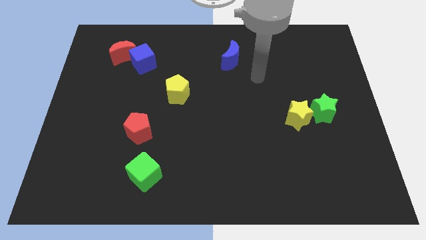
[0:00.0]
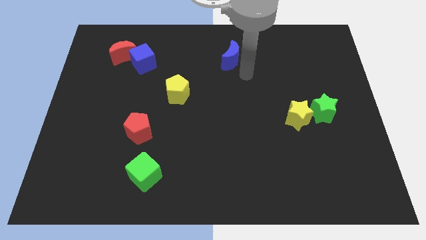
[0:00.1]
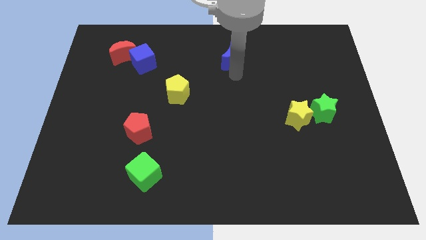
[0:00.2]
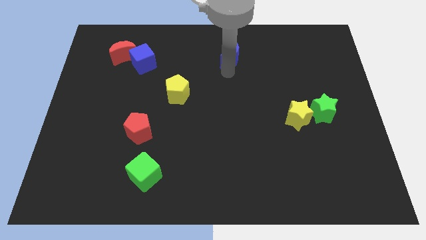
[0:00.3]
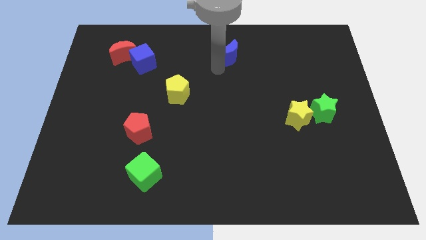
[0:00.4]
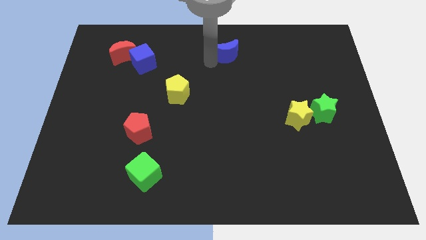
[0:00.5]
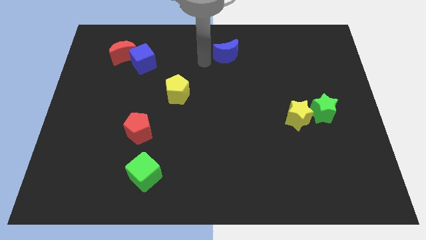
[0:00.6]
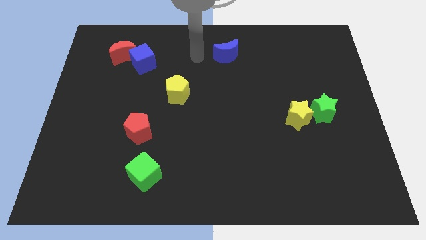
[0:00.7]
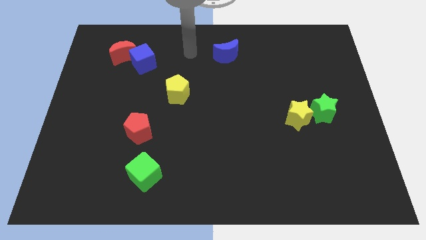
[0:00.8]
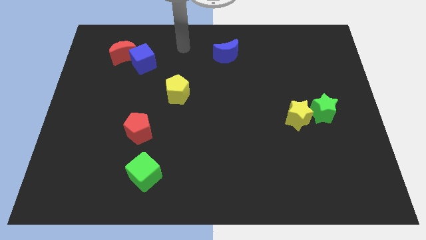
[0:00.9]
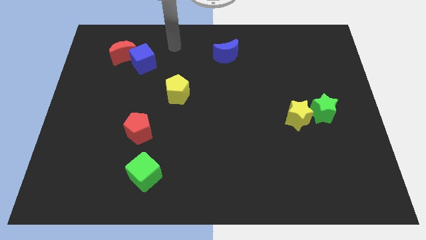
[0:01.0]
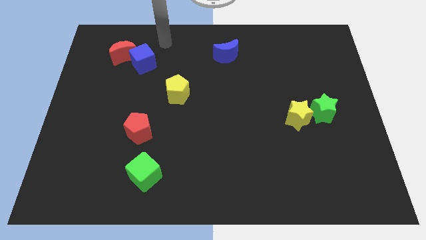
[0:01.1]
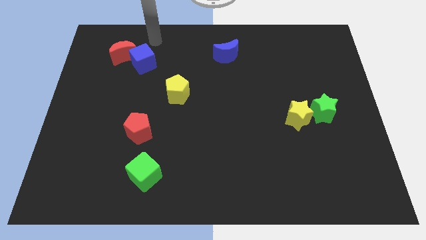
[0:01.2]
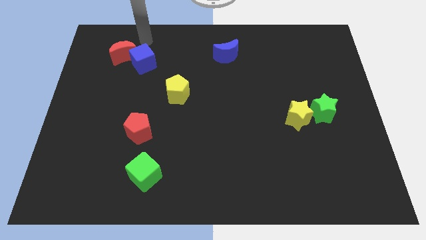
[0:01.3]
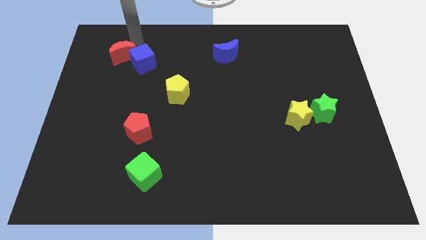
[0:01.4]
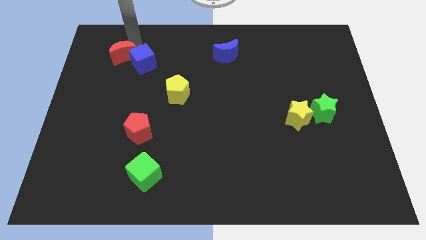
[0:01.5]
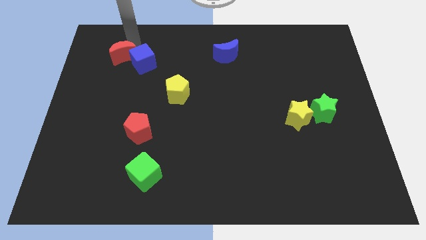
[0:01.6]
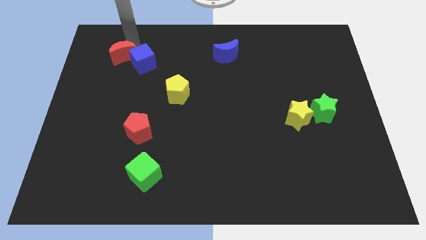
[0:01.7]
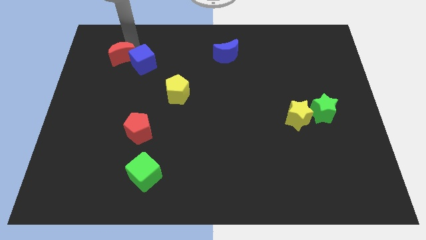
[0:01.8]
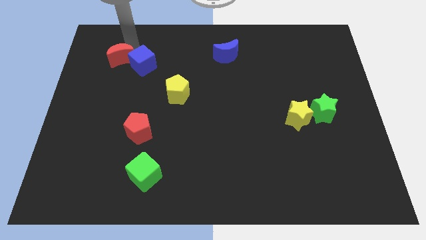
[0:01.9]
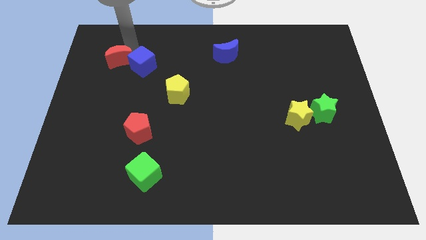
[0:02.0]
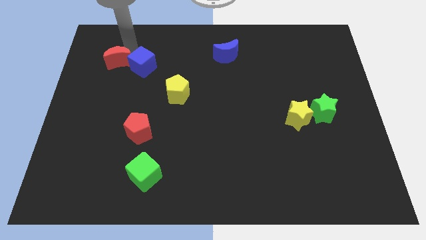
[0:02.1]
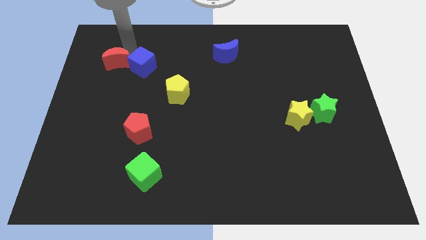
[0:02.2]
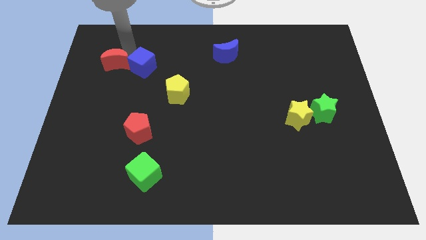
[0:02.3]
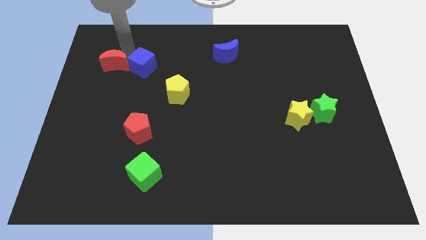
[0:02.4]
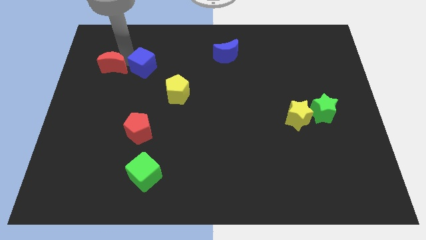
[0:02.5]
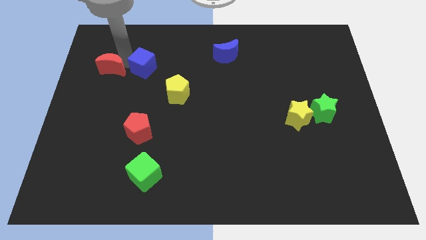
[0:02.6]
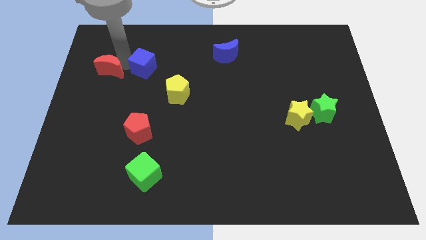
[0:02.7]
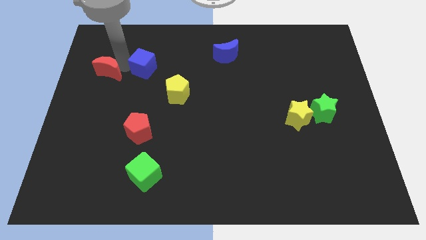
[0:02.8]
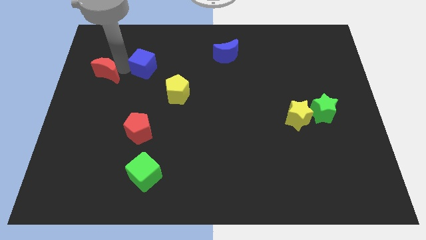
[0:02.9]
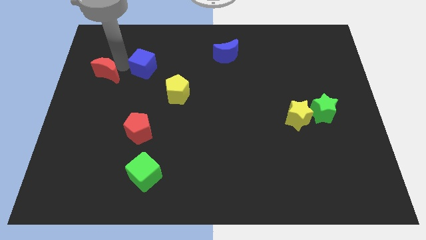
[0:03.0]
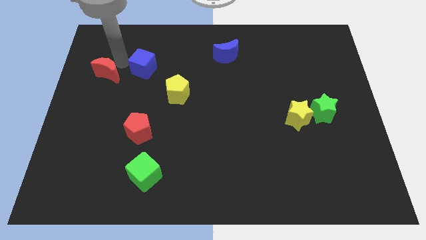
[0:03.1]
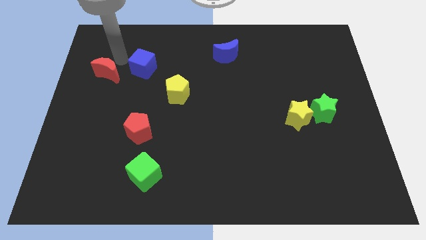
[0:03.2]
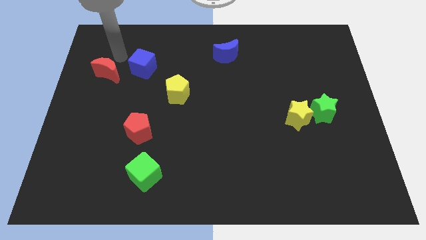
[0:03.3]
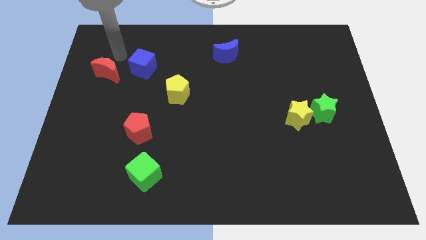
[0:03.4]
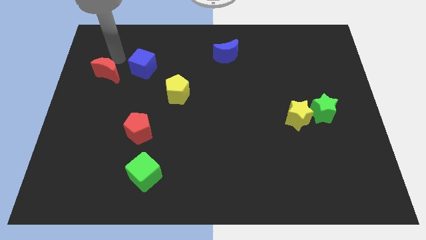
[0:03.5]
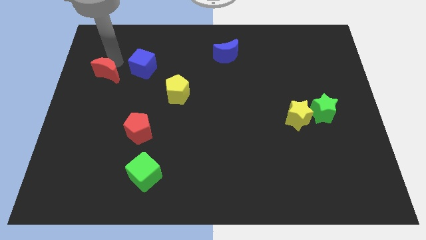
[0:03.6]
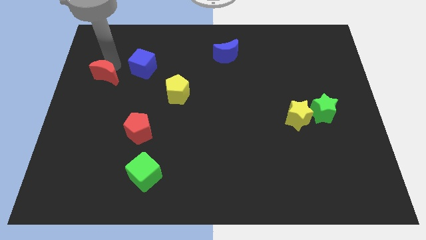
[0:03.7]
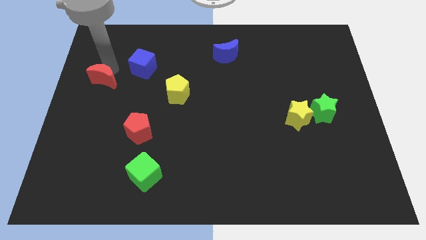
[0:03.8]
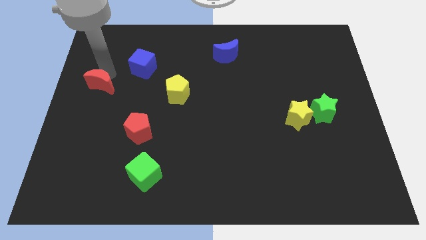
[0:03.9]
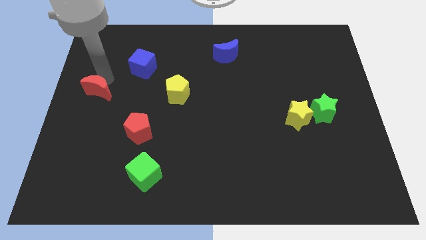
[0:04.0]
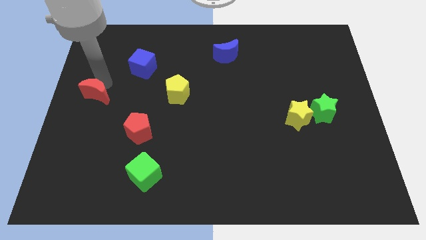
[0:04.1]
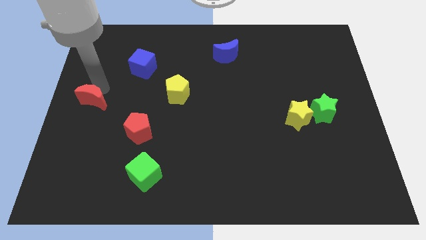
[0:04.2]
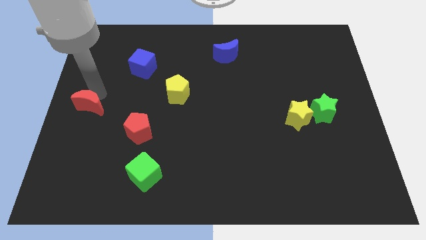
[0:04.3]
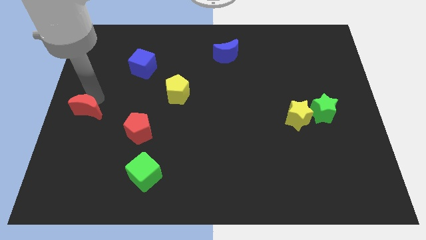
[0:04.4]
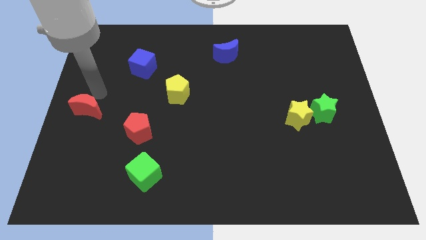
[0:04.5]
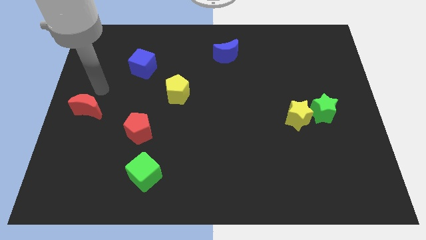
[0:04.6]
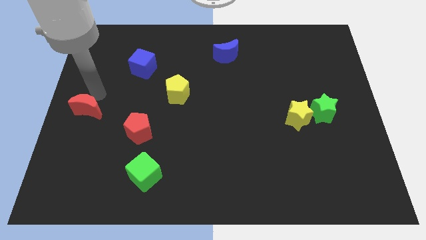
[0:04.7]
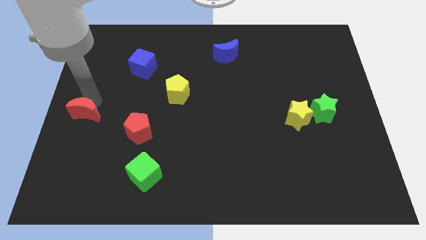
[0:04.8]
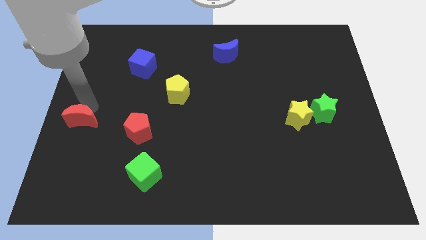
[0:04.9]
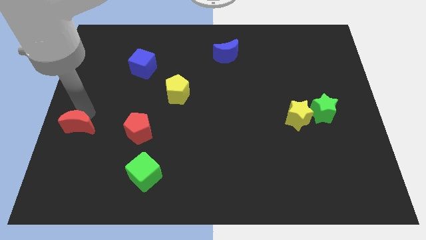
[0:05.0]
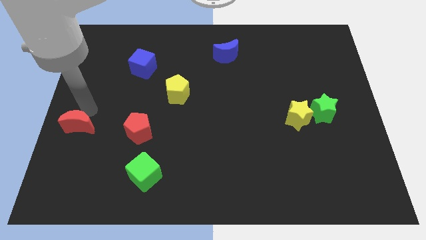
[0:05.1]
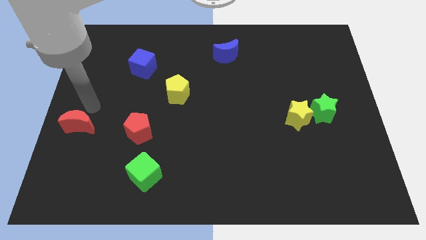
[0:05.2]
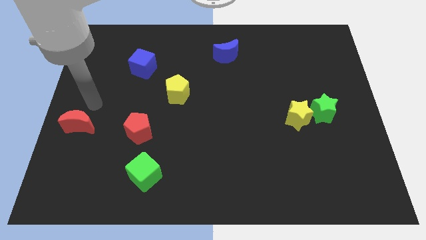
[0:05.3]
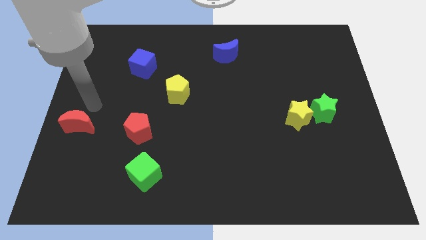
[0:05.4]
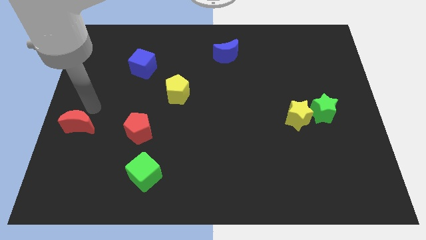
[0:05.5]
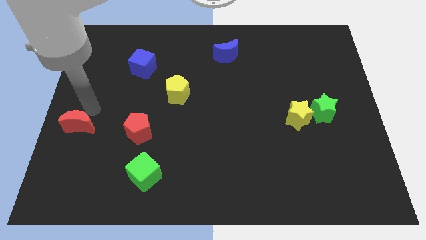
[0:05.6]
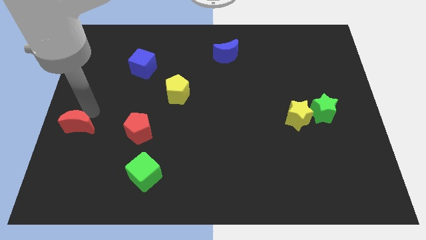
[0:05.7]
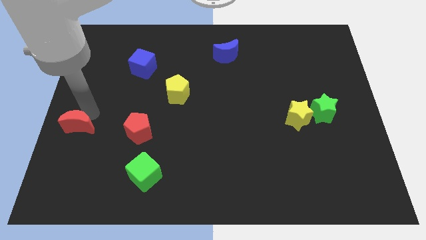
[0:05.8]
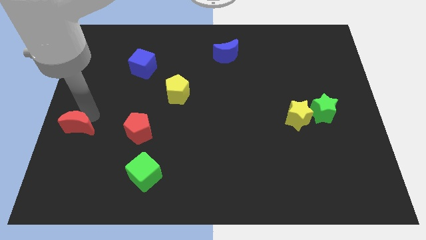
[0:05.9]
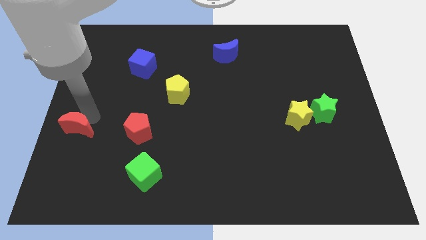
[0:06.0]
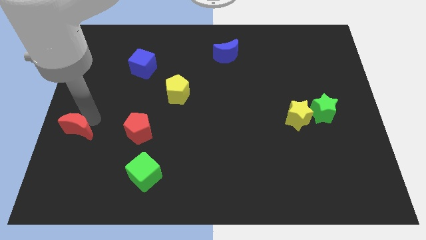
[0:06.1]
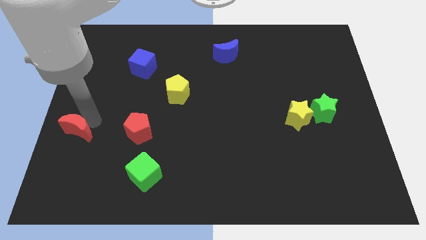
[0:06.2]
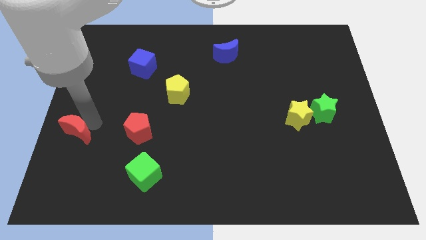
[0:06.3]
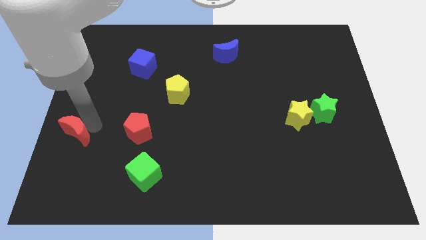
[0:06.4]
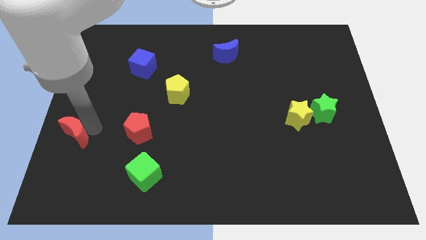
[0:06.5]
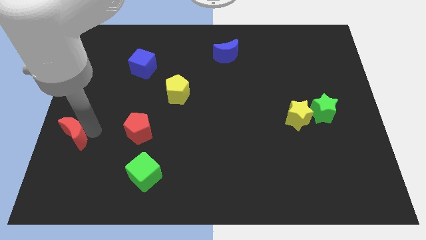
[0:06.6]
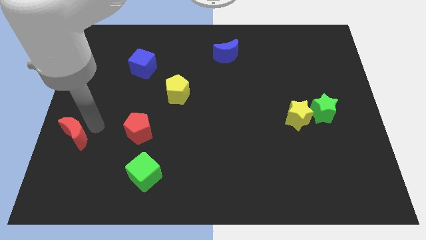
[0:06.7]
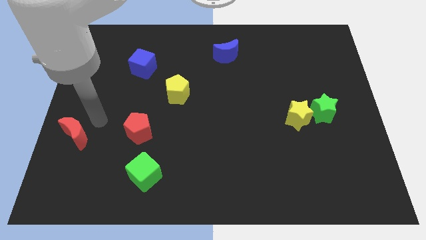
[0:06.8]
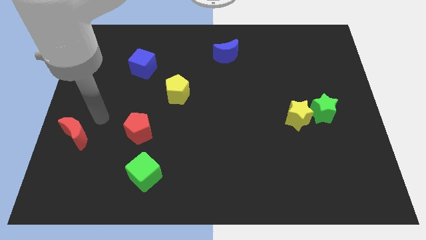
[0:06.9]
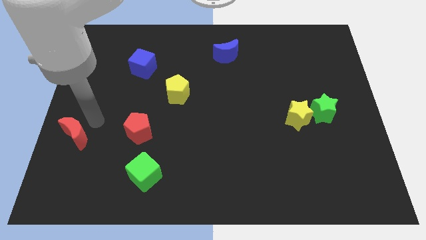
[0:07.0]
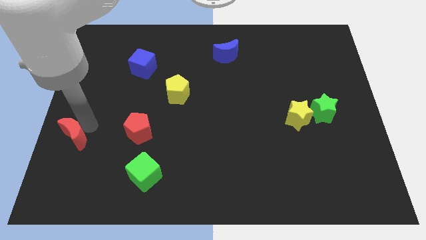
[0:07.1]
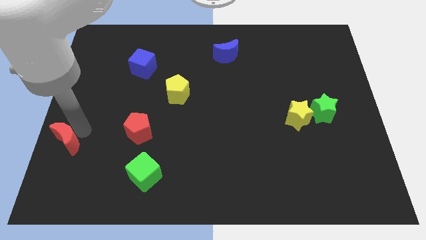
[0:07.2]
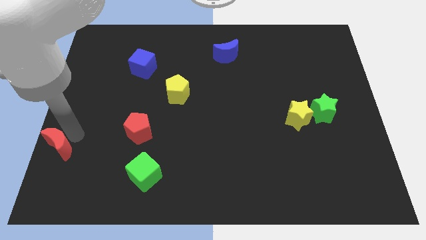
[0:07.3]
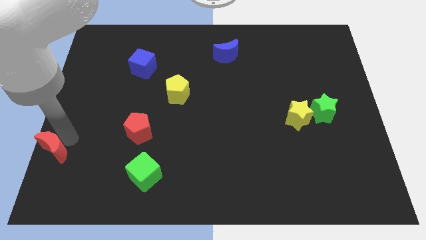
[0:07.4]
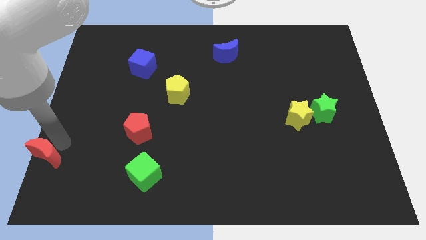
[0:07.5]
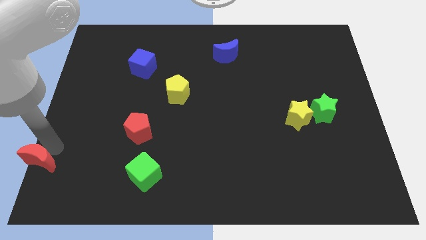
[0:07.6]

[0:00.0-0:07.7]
slide the red moon to the bottom left
